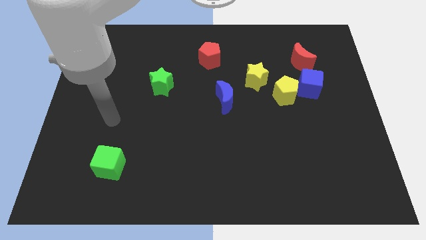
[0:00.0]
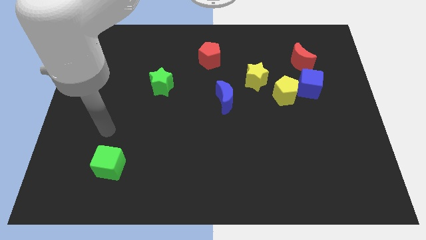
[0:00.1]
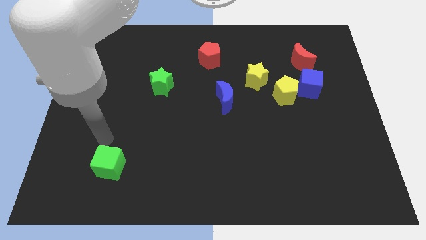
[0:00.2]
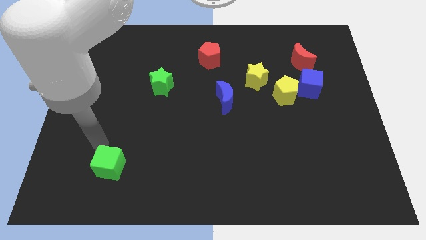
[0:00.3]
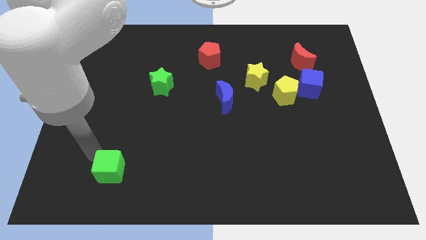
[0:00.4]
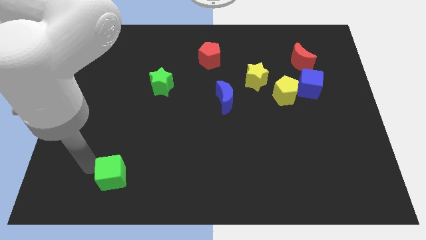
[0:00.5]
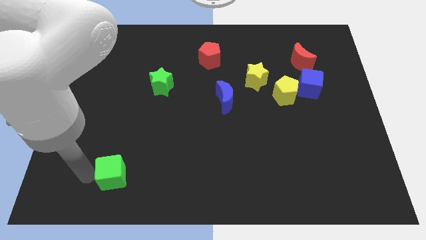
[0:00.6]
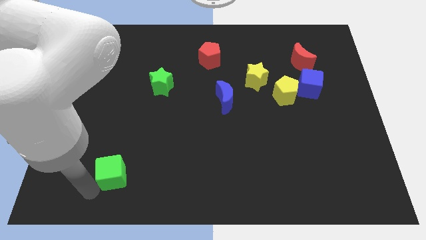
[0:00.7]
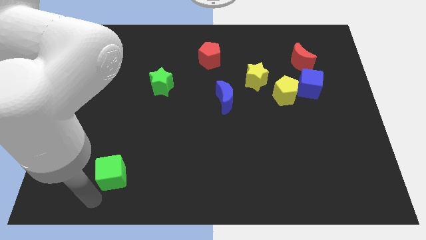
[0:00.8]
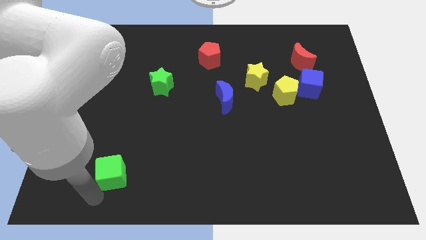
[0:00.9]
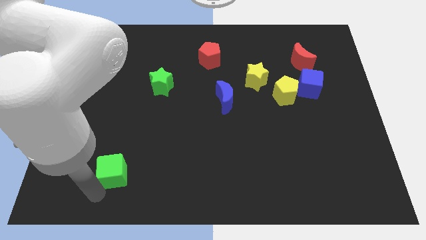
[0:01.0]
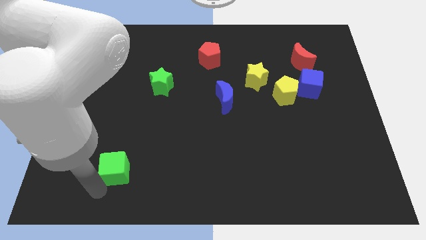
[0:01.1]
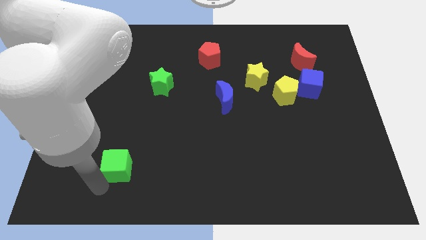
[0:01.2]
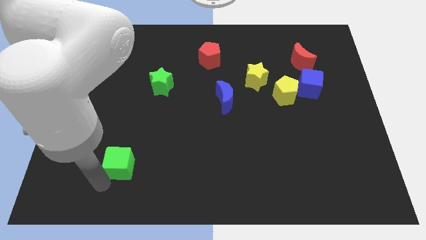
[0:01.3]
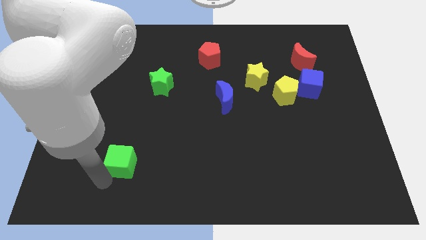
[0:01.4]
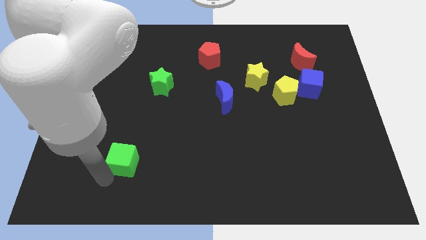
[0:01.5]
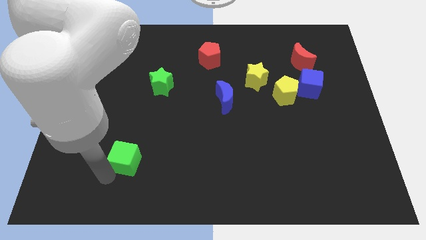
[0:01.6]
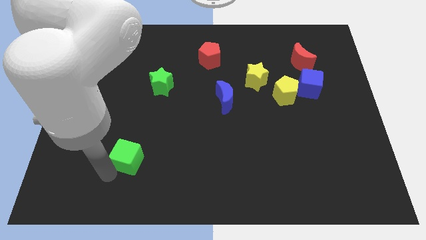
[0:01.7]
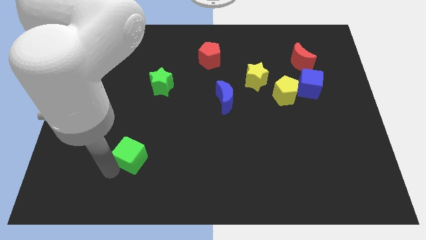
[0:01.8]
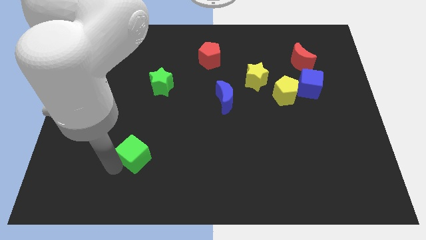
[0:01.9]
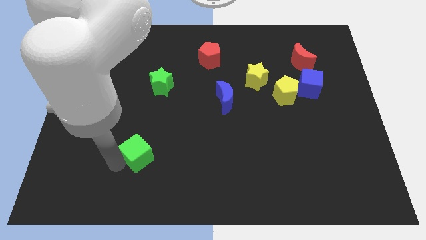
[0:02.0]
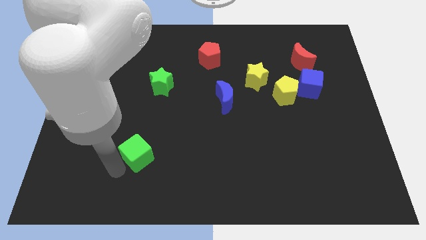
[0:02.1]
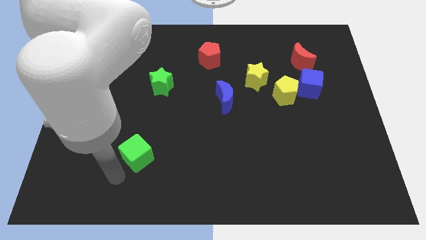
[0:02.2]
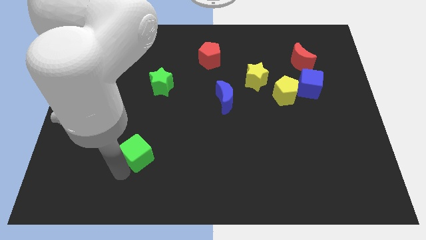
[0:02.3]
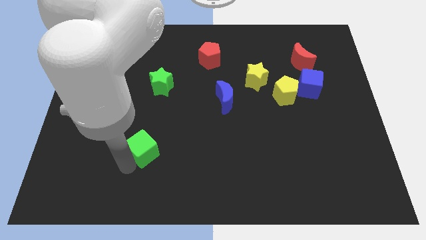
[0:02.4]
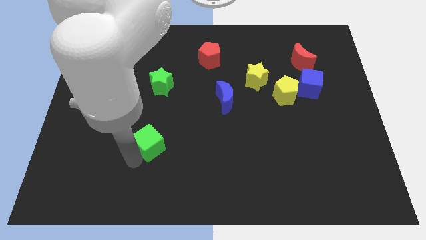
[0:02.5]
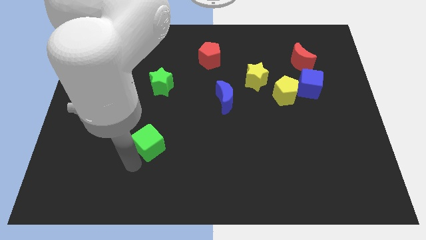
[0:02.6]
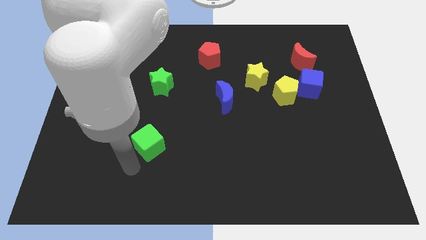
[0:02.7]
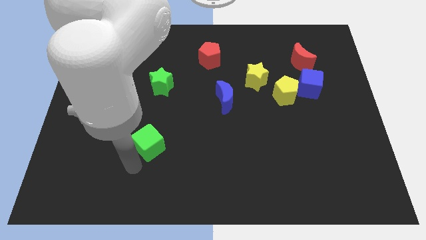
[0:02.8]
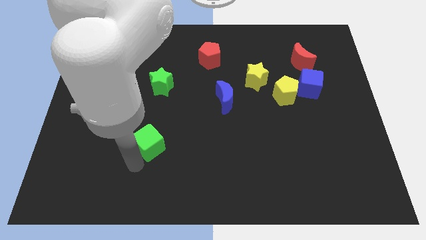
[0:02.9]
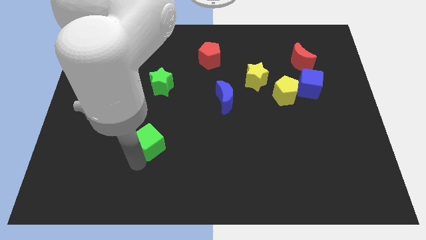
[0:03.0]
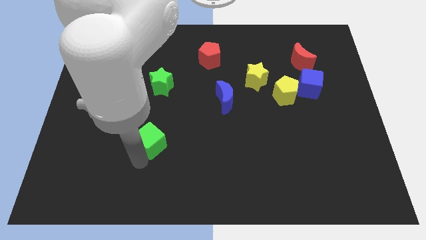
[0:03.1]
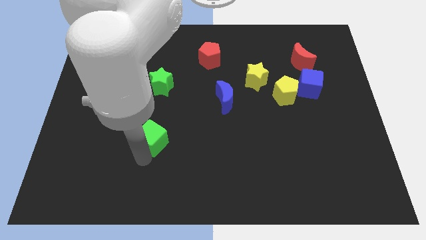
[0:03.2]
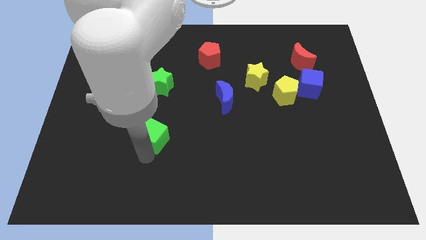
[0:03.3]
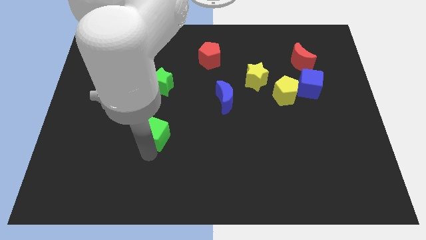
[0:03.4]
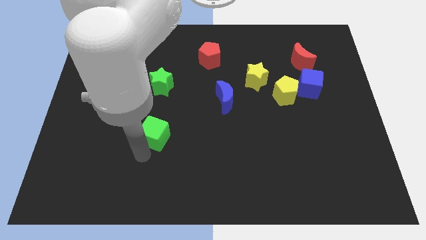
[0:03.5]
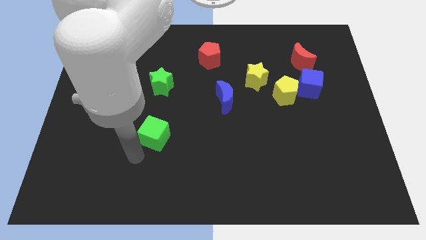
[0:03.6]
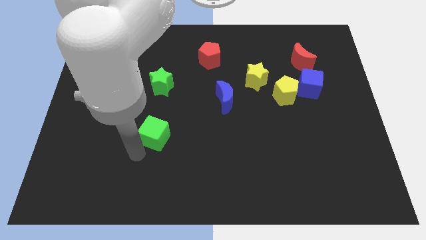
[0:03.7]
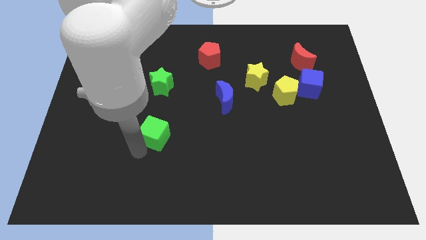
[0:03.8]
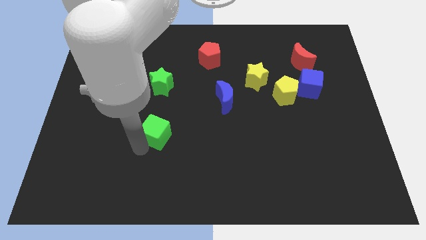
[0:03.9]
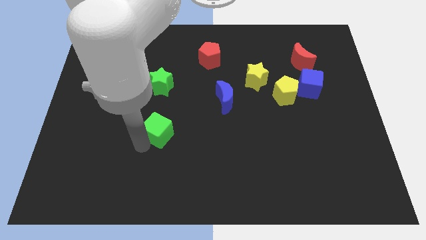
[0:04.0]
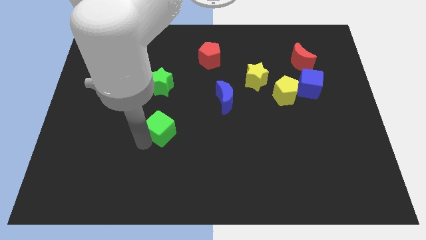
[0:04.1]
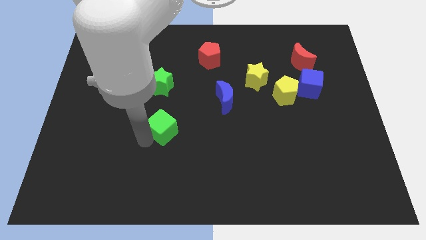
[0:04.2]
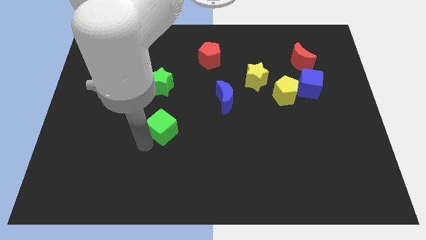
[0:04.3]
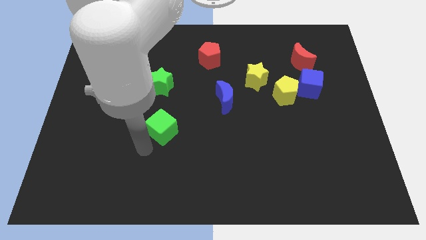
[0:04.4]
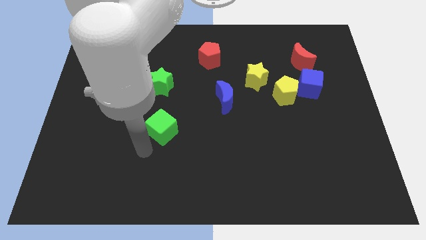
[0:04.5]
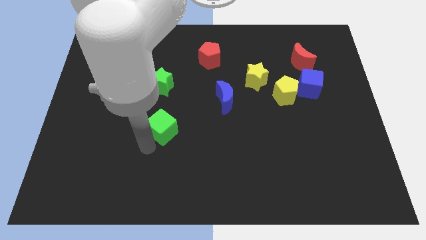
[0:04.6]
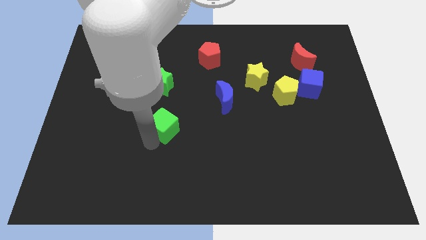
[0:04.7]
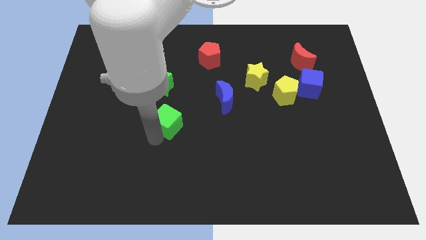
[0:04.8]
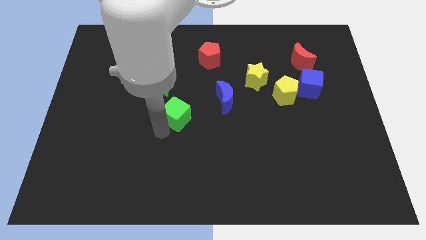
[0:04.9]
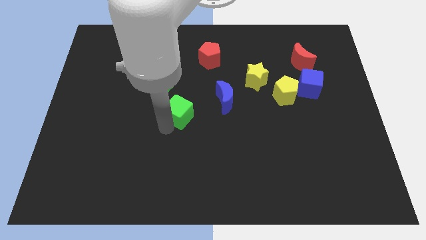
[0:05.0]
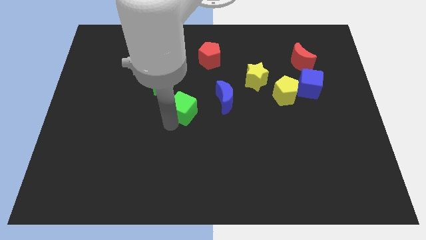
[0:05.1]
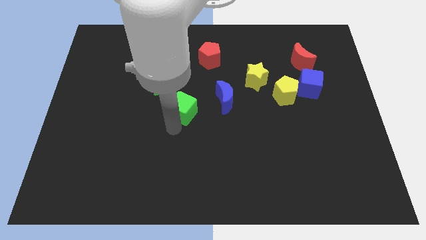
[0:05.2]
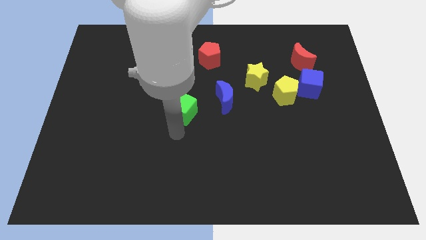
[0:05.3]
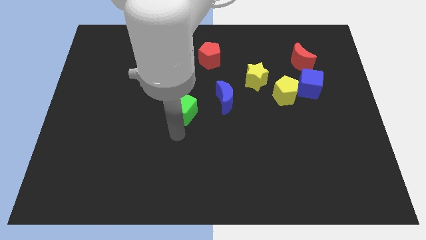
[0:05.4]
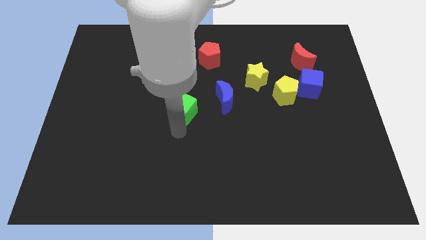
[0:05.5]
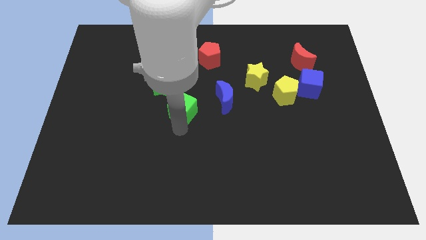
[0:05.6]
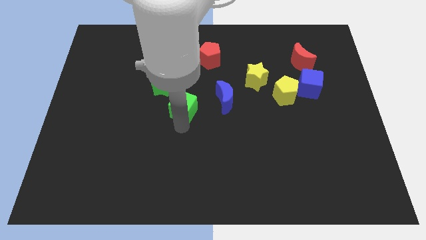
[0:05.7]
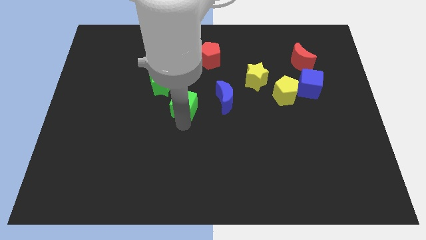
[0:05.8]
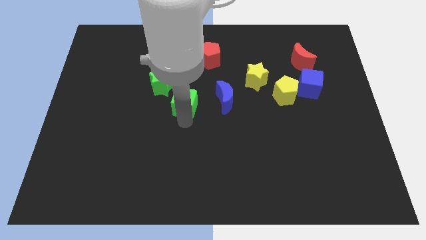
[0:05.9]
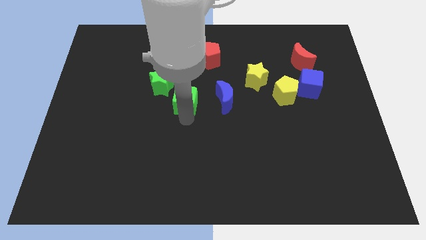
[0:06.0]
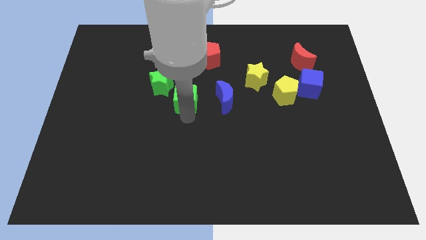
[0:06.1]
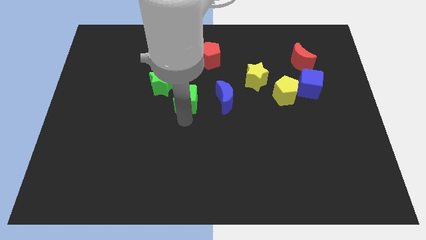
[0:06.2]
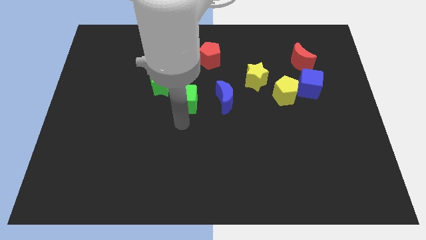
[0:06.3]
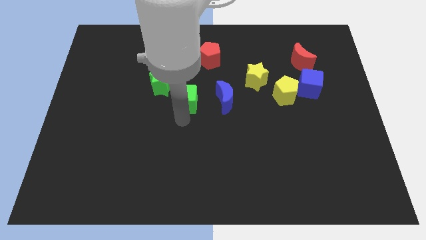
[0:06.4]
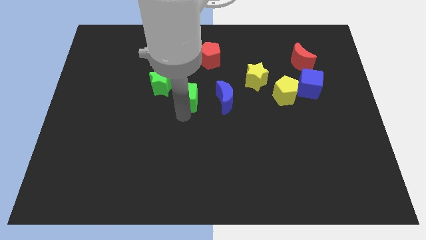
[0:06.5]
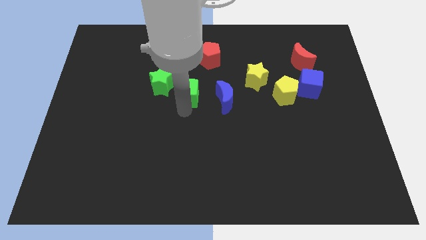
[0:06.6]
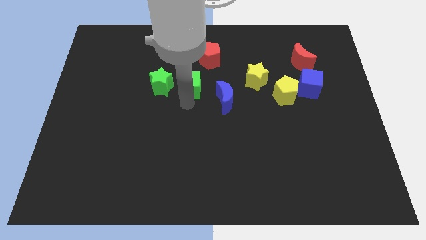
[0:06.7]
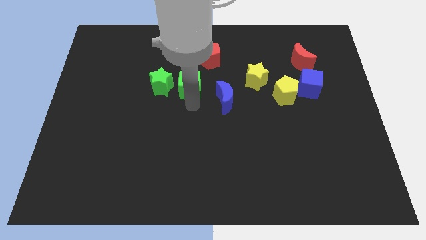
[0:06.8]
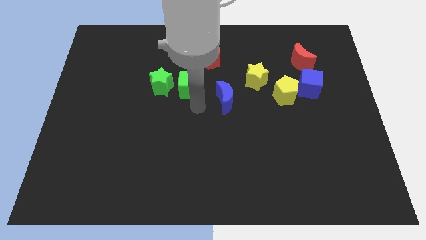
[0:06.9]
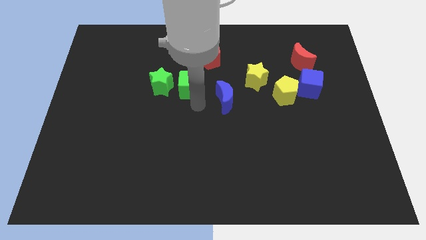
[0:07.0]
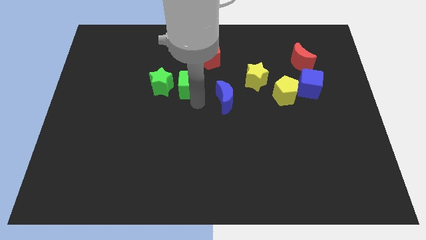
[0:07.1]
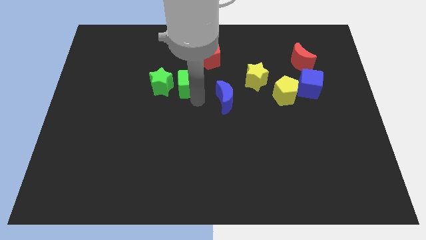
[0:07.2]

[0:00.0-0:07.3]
push the green cube to the top right of the green star
